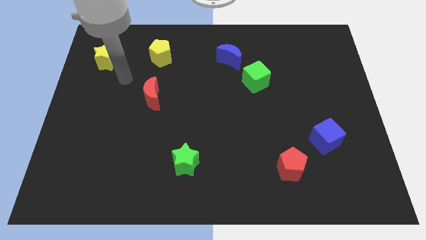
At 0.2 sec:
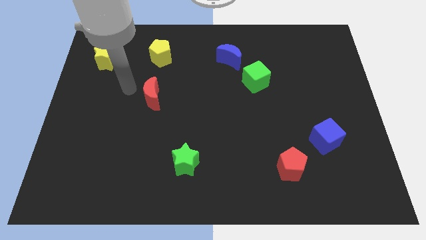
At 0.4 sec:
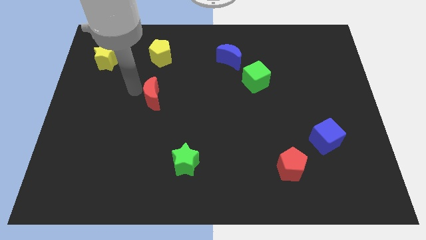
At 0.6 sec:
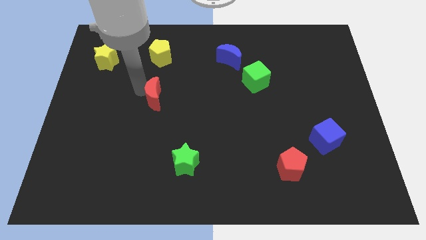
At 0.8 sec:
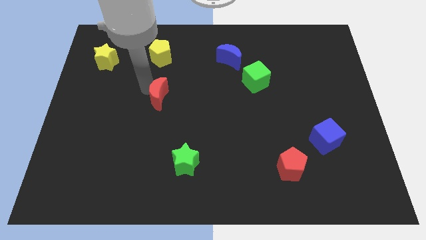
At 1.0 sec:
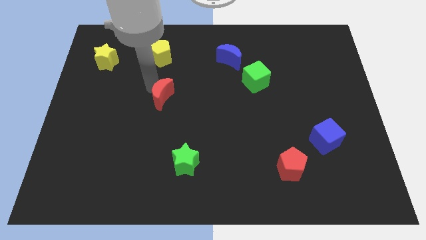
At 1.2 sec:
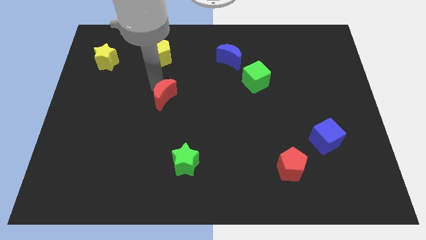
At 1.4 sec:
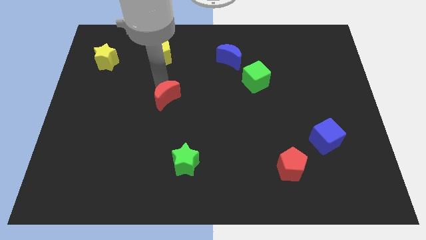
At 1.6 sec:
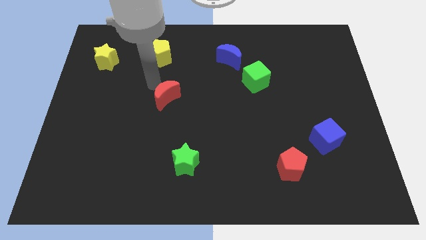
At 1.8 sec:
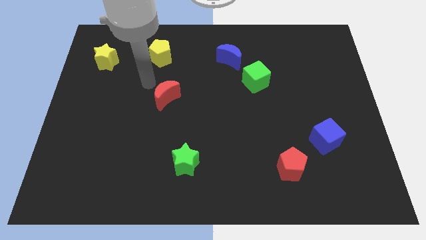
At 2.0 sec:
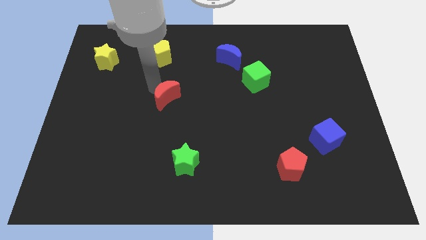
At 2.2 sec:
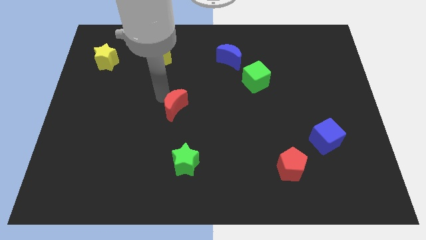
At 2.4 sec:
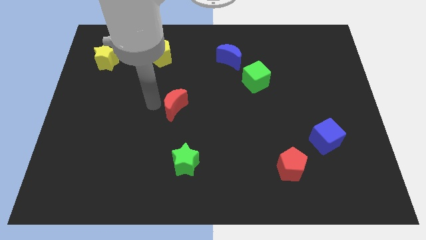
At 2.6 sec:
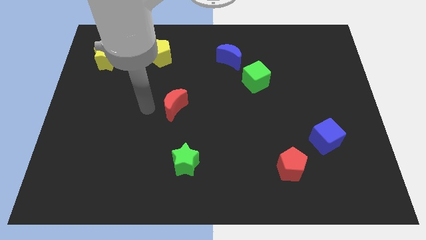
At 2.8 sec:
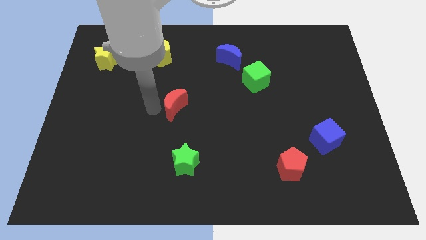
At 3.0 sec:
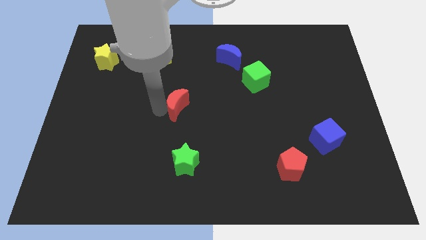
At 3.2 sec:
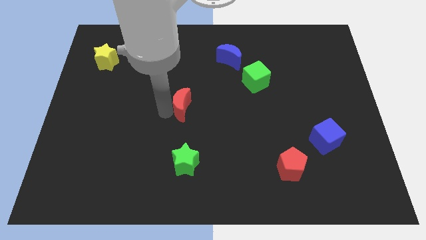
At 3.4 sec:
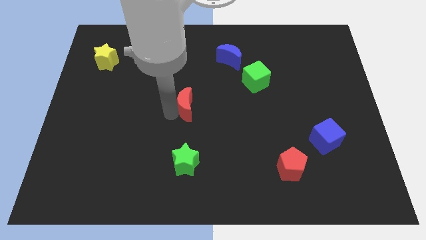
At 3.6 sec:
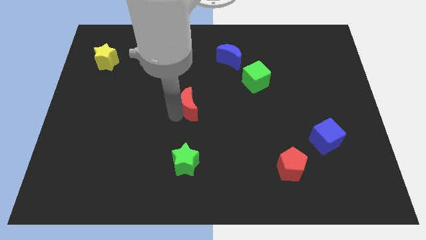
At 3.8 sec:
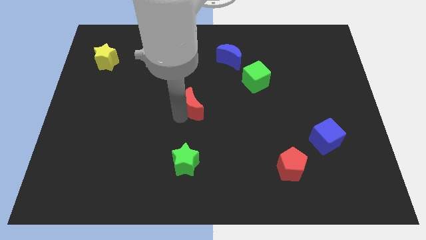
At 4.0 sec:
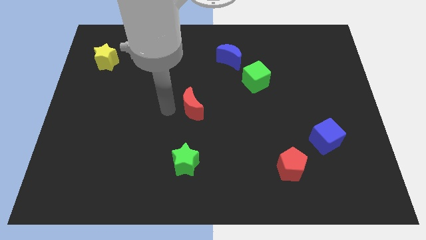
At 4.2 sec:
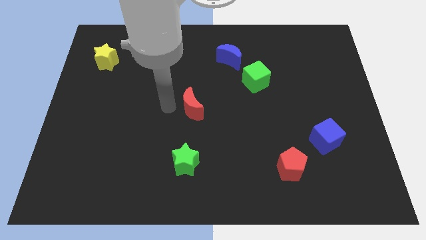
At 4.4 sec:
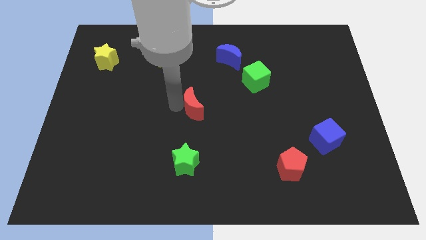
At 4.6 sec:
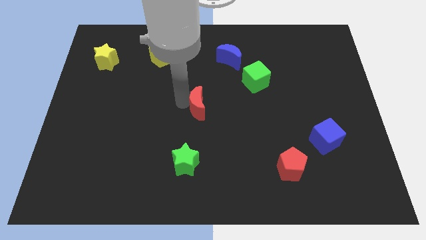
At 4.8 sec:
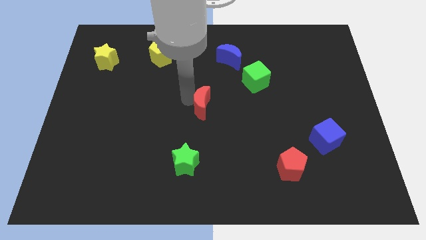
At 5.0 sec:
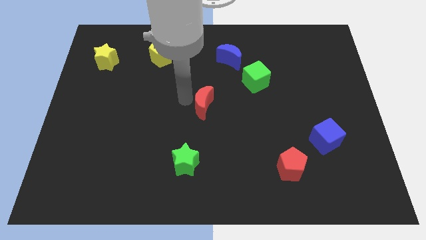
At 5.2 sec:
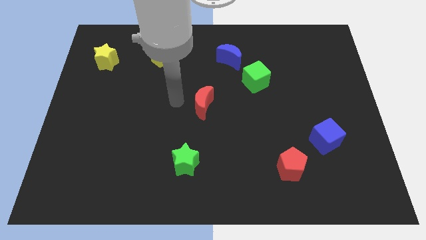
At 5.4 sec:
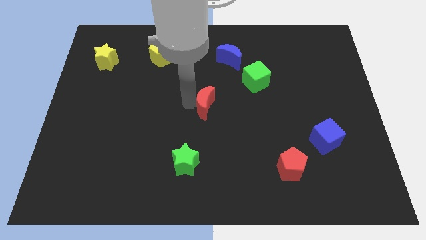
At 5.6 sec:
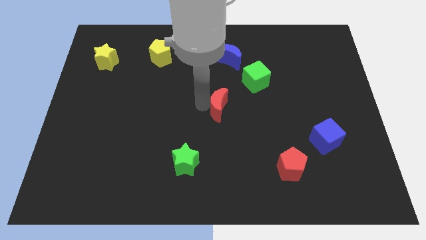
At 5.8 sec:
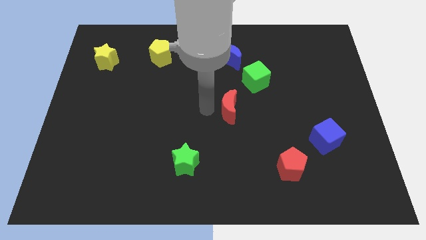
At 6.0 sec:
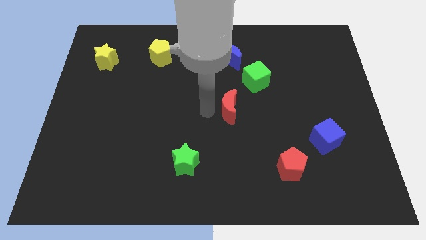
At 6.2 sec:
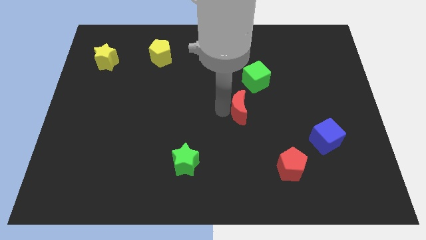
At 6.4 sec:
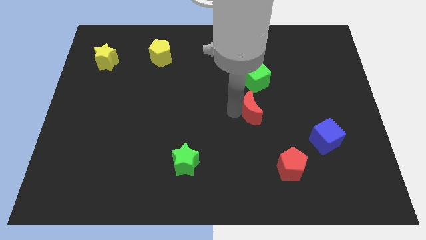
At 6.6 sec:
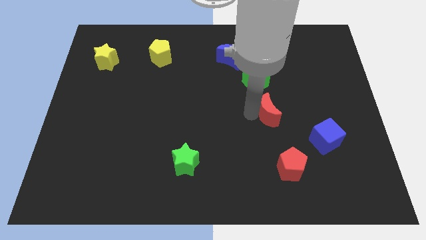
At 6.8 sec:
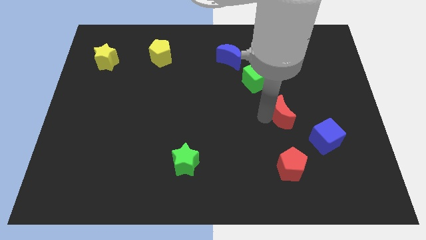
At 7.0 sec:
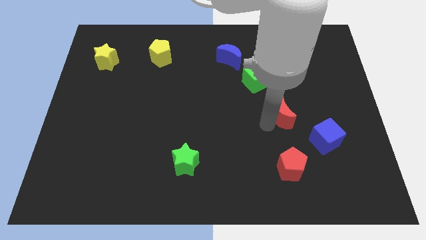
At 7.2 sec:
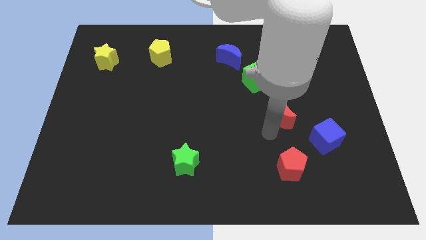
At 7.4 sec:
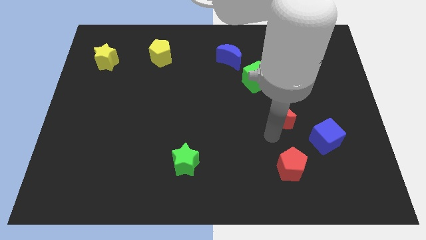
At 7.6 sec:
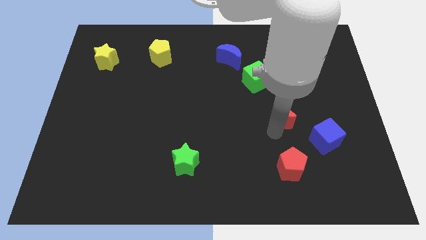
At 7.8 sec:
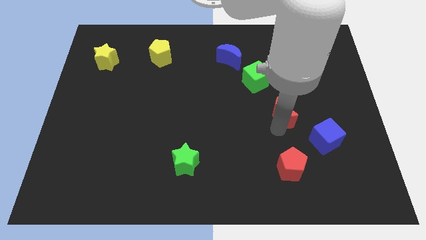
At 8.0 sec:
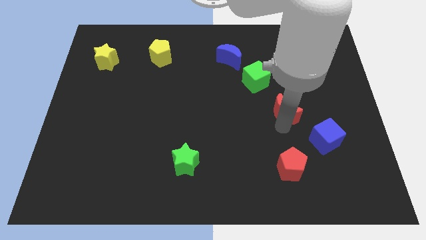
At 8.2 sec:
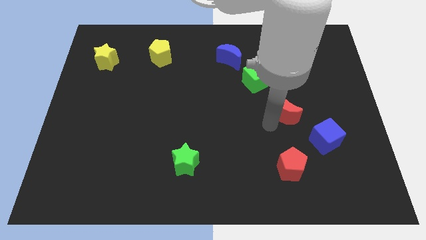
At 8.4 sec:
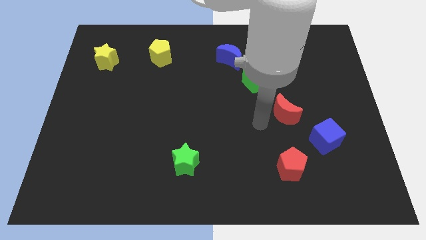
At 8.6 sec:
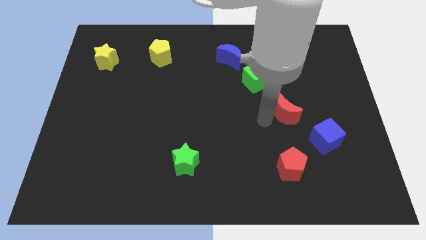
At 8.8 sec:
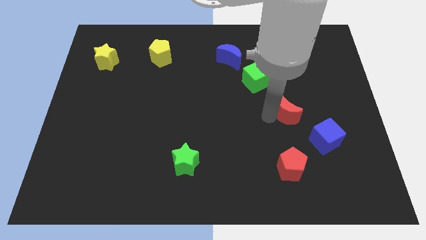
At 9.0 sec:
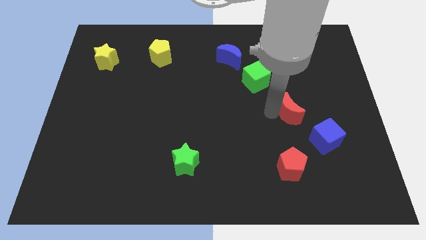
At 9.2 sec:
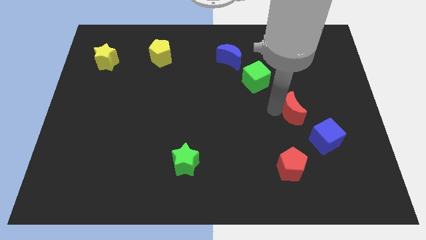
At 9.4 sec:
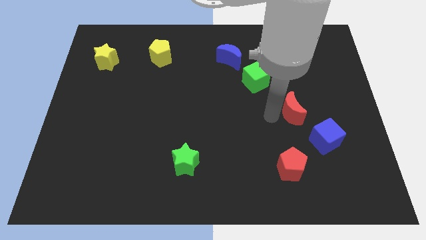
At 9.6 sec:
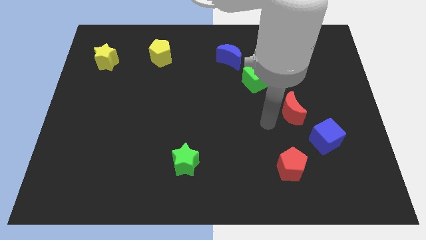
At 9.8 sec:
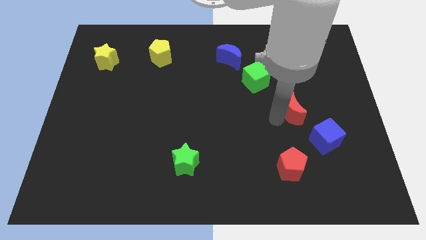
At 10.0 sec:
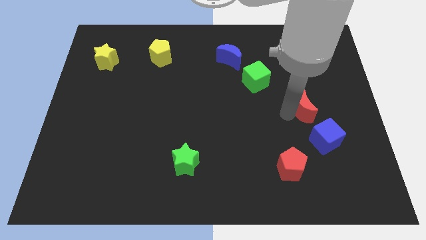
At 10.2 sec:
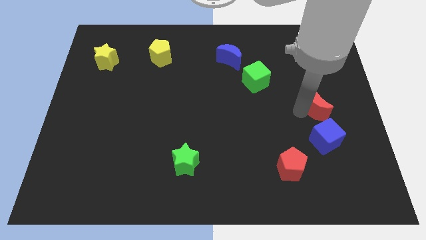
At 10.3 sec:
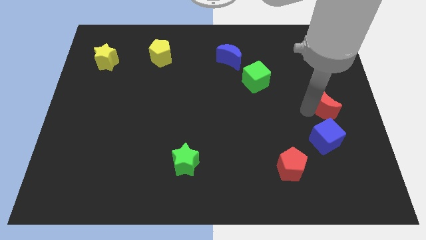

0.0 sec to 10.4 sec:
move the red moon to the center right

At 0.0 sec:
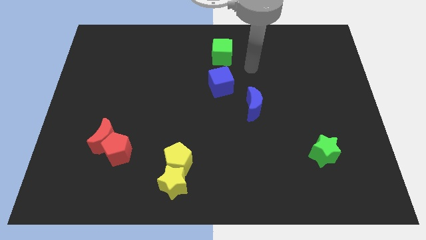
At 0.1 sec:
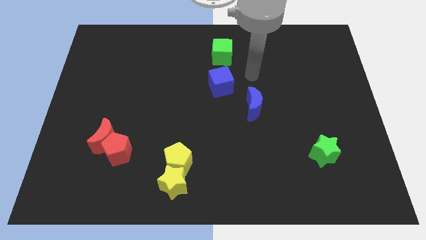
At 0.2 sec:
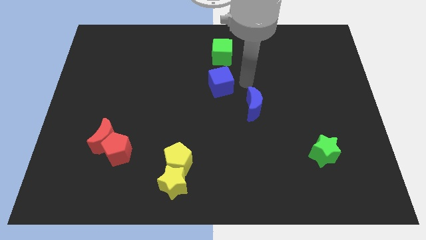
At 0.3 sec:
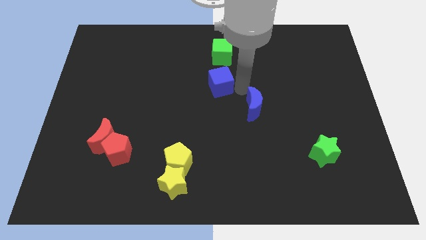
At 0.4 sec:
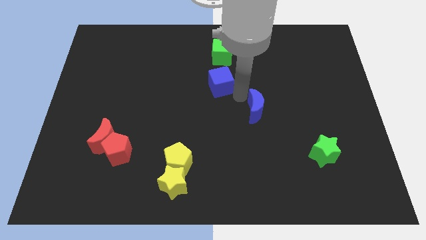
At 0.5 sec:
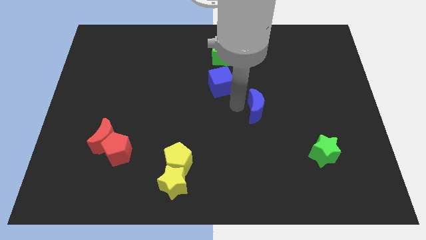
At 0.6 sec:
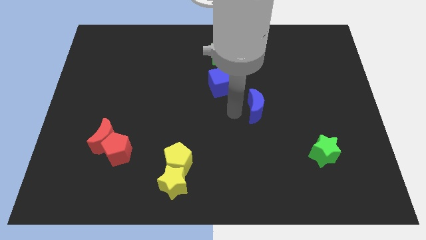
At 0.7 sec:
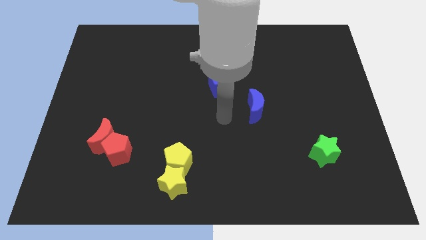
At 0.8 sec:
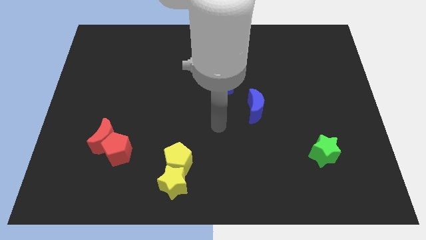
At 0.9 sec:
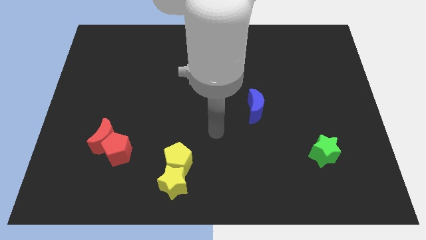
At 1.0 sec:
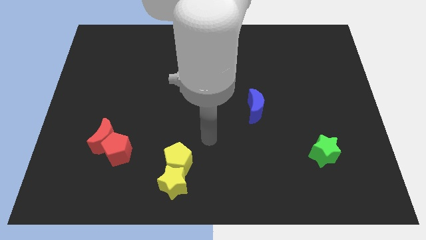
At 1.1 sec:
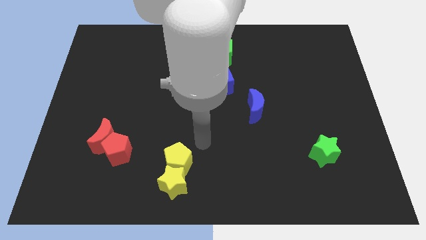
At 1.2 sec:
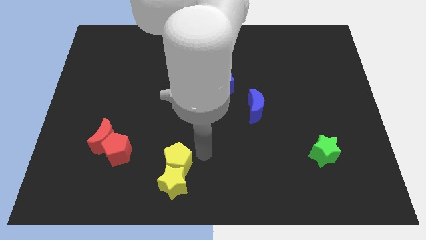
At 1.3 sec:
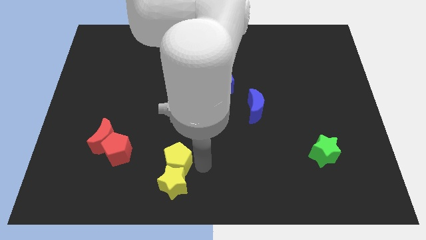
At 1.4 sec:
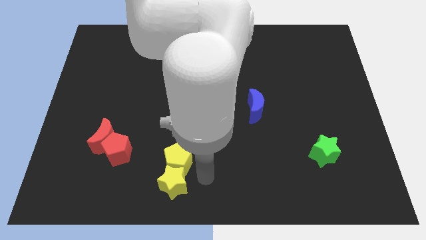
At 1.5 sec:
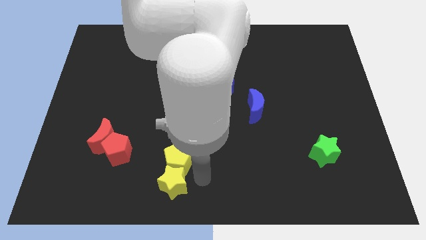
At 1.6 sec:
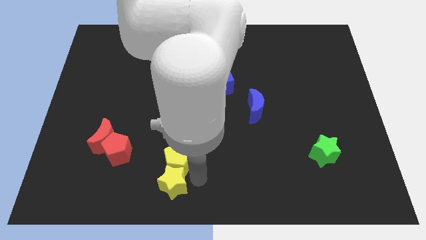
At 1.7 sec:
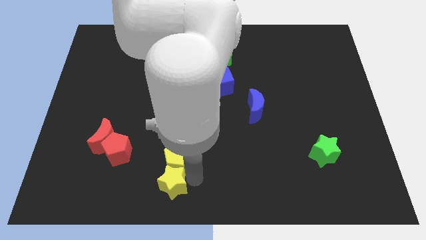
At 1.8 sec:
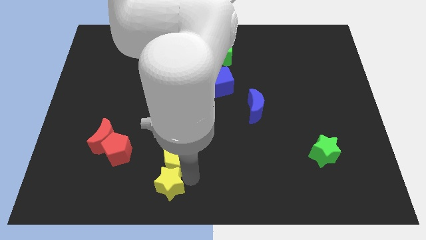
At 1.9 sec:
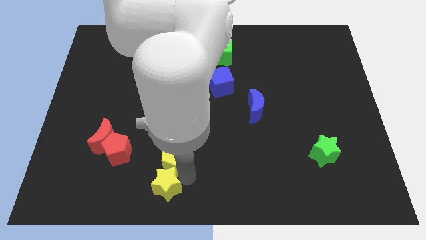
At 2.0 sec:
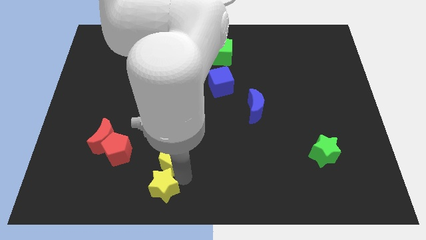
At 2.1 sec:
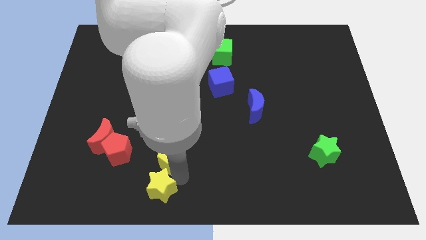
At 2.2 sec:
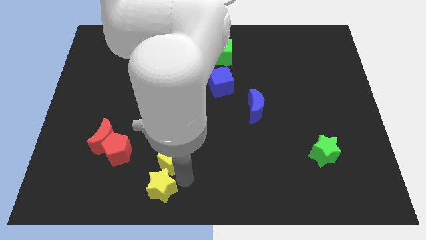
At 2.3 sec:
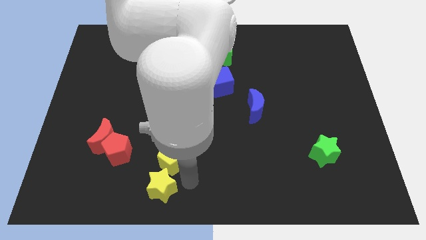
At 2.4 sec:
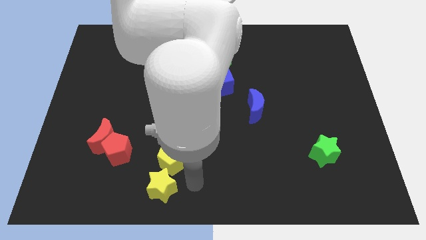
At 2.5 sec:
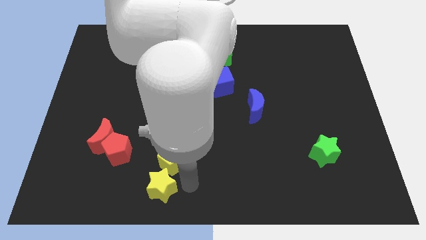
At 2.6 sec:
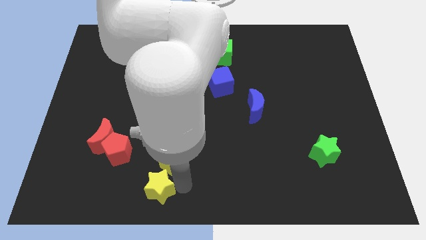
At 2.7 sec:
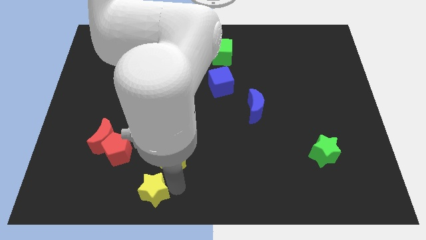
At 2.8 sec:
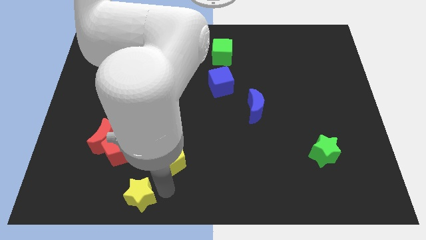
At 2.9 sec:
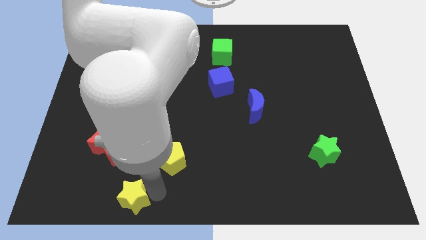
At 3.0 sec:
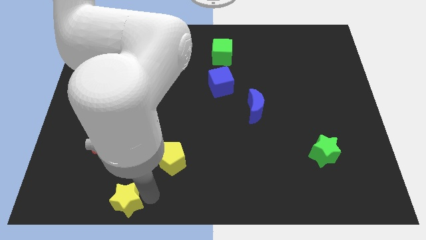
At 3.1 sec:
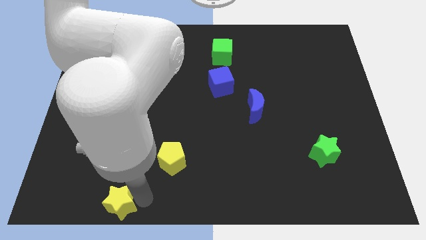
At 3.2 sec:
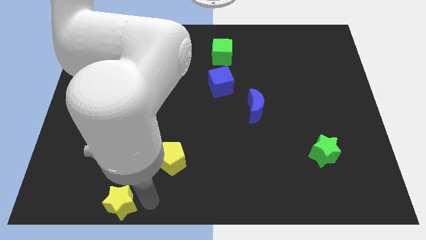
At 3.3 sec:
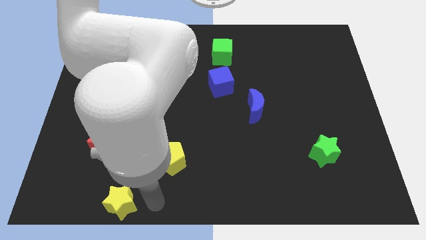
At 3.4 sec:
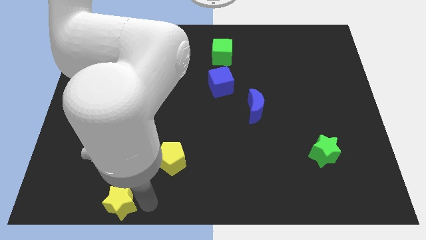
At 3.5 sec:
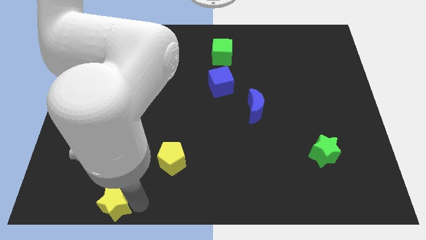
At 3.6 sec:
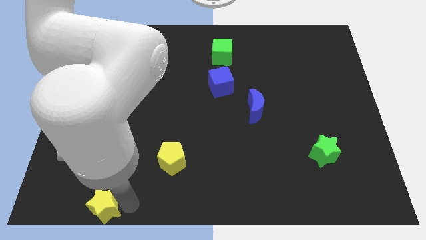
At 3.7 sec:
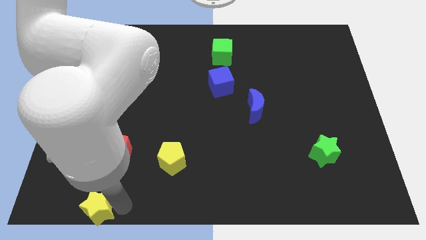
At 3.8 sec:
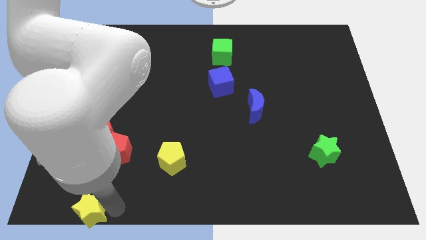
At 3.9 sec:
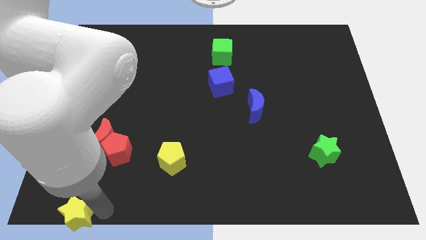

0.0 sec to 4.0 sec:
slide the yellow star to the lower left corner
